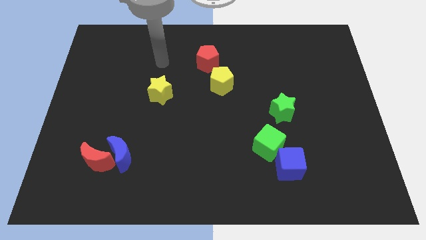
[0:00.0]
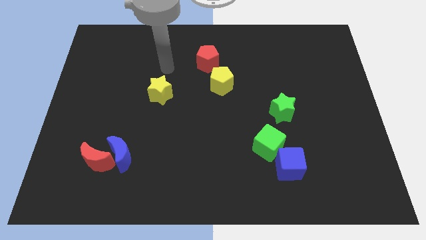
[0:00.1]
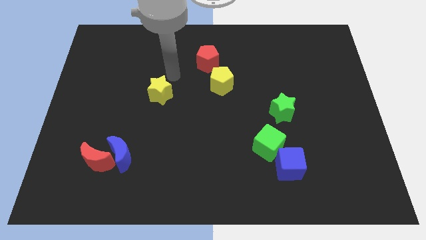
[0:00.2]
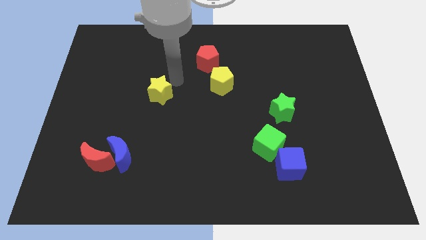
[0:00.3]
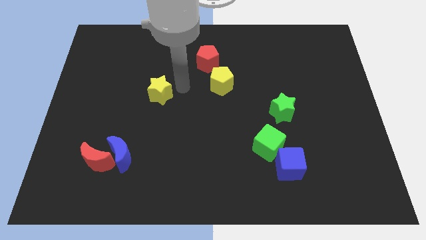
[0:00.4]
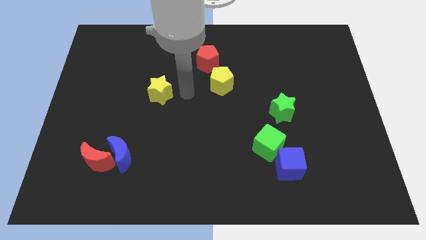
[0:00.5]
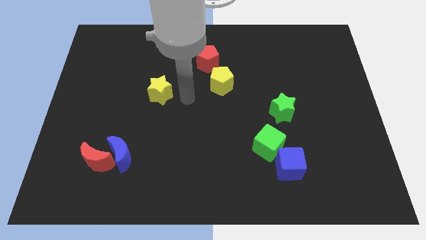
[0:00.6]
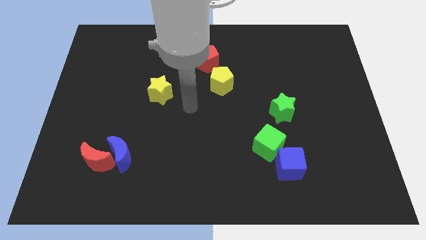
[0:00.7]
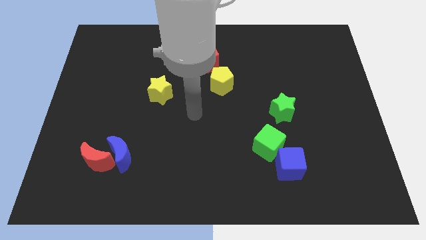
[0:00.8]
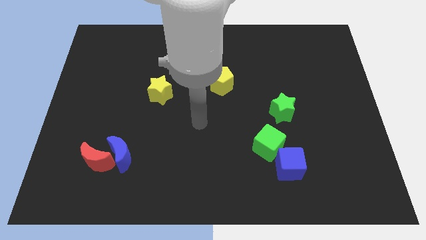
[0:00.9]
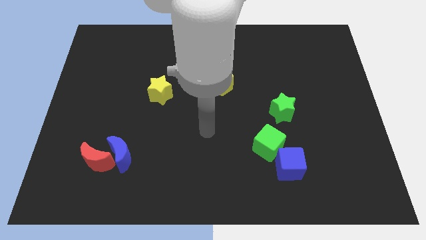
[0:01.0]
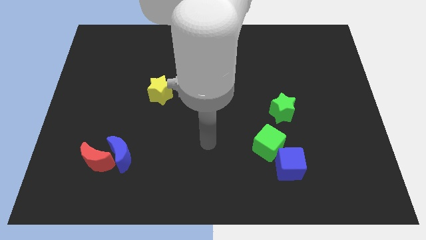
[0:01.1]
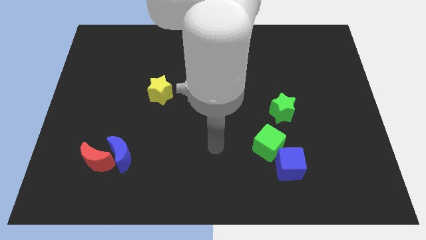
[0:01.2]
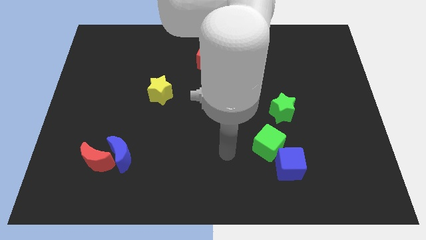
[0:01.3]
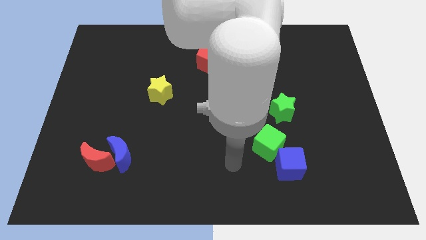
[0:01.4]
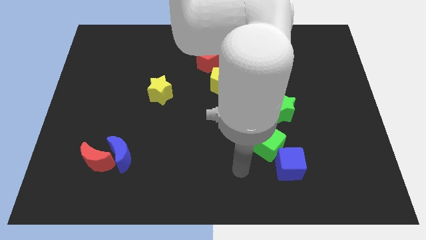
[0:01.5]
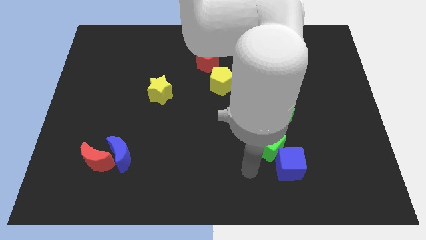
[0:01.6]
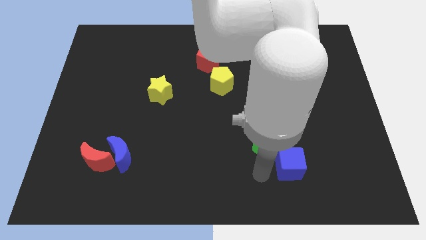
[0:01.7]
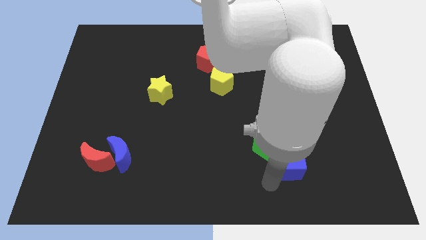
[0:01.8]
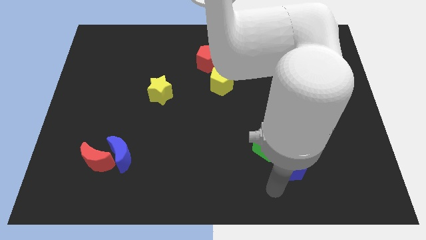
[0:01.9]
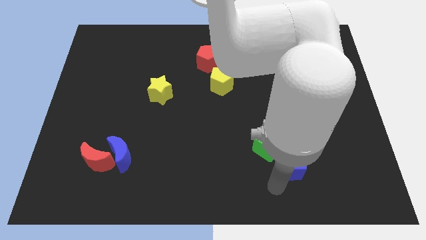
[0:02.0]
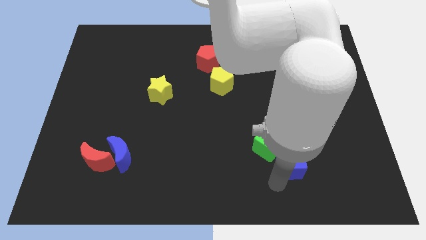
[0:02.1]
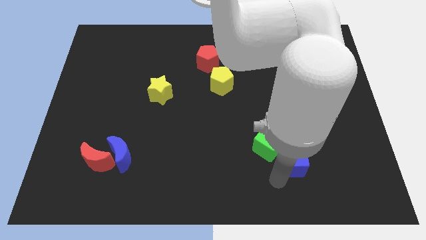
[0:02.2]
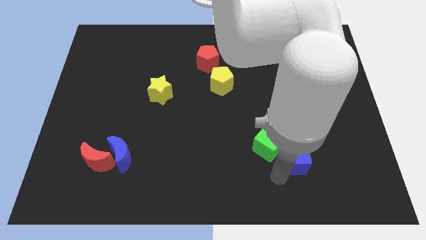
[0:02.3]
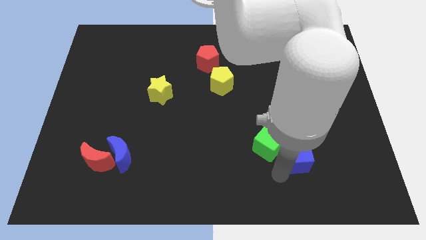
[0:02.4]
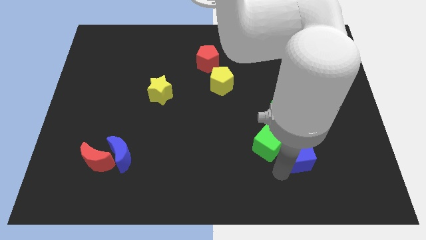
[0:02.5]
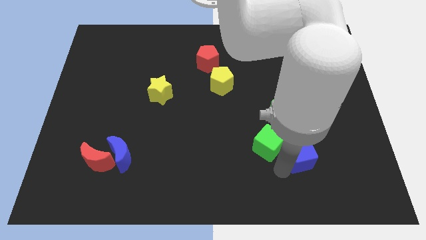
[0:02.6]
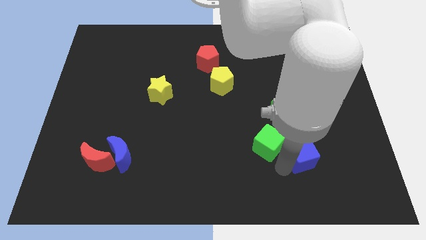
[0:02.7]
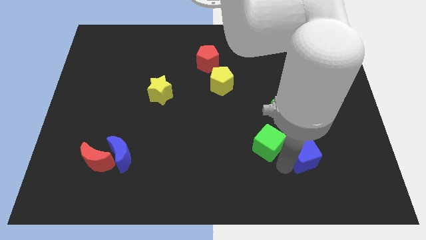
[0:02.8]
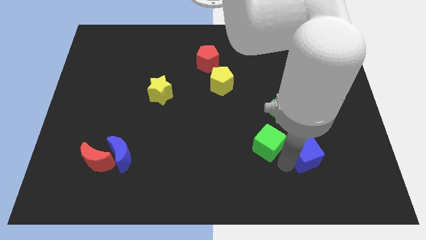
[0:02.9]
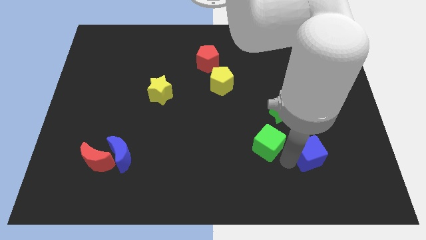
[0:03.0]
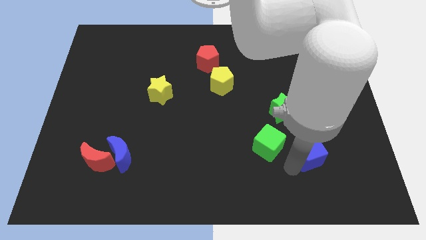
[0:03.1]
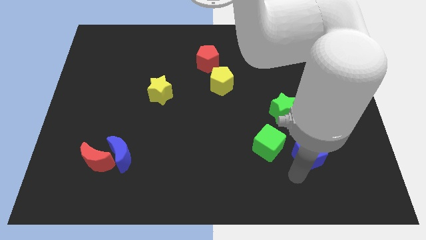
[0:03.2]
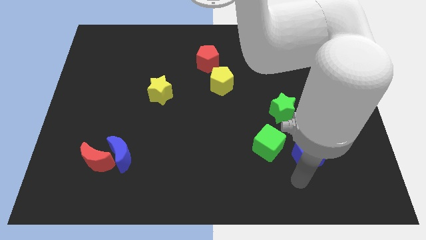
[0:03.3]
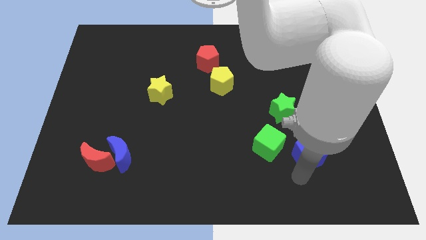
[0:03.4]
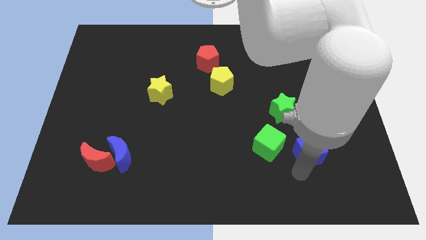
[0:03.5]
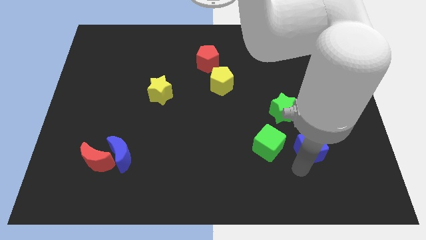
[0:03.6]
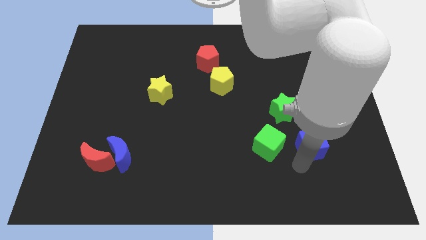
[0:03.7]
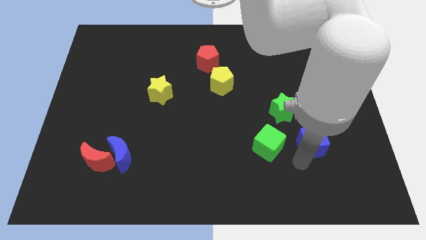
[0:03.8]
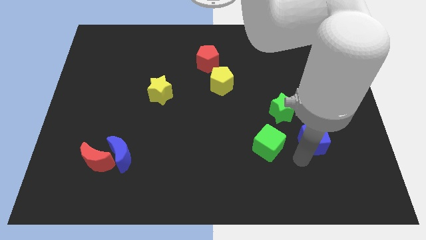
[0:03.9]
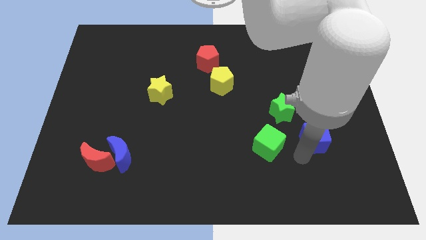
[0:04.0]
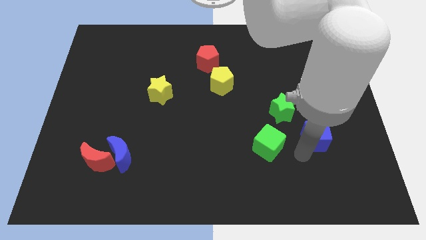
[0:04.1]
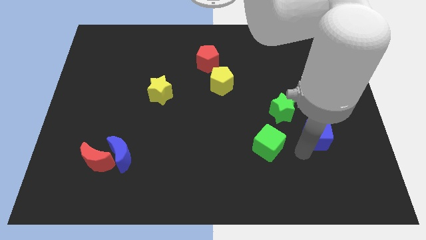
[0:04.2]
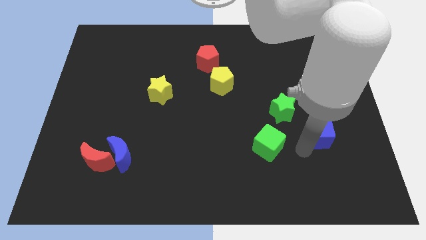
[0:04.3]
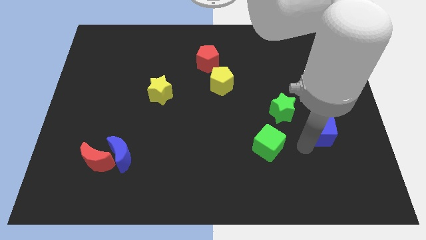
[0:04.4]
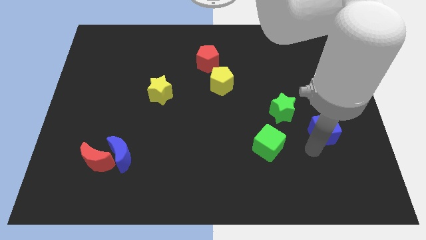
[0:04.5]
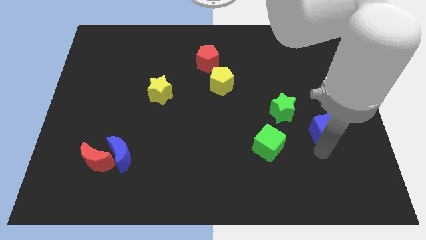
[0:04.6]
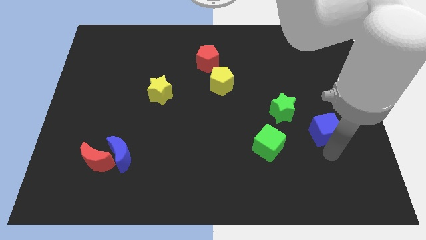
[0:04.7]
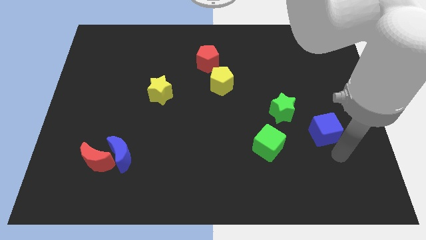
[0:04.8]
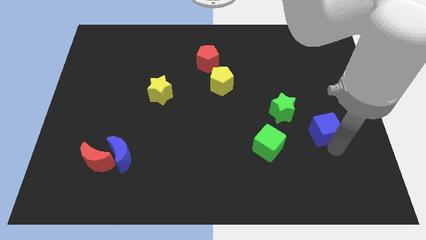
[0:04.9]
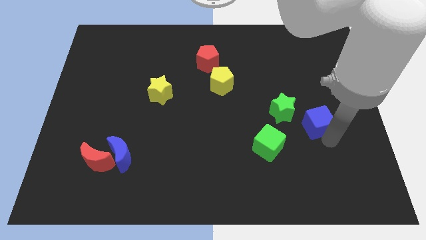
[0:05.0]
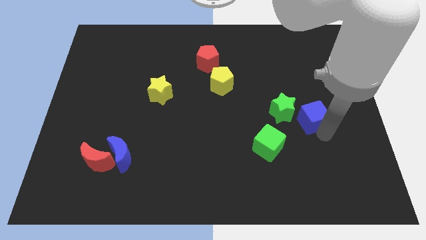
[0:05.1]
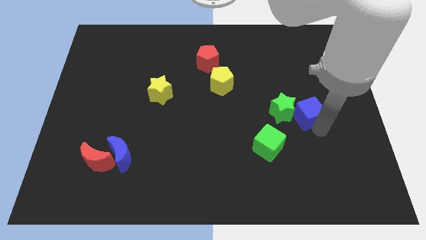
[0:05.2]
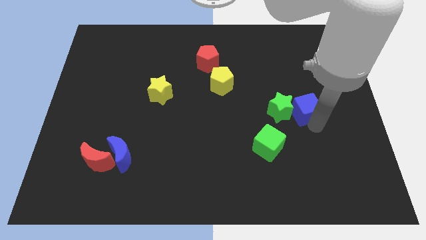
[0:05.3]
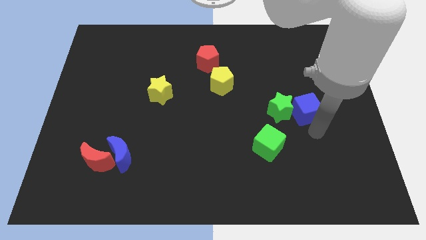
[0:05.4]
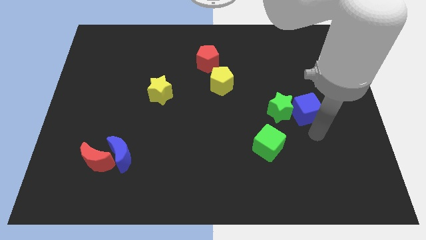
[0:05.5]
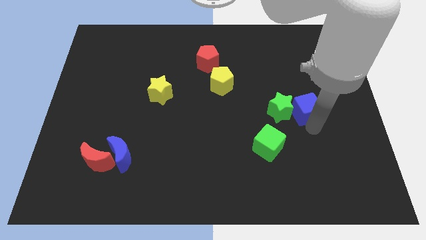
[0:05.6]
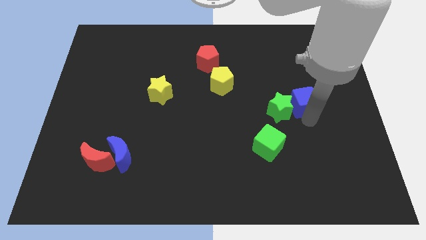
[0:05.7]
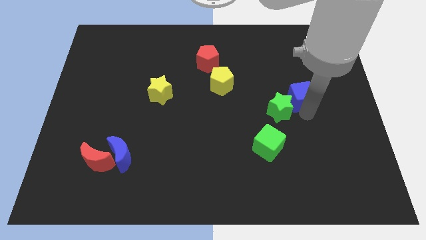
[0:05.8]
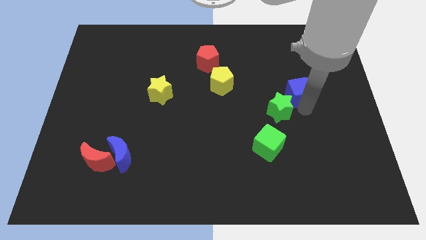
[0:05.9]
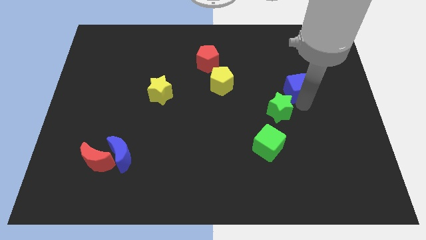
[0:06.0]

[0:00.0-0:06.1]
move the blue cube up

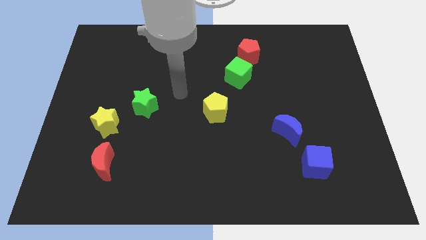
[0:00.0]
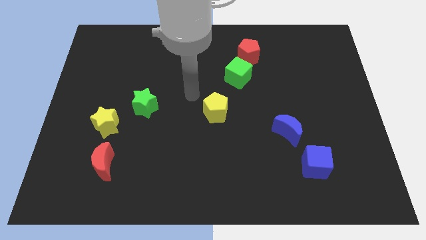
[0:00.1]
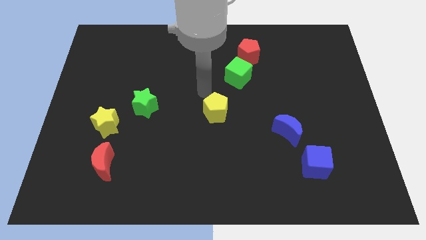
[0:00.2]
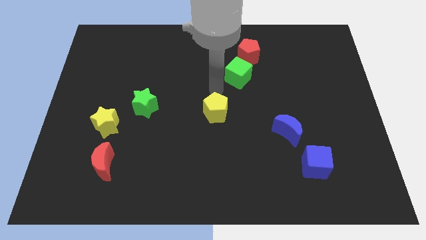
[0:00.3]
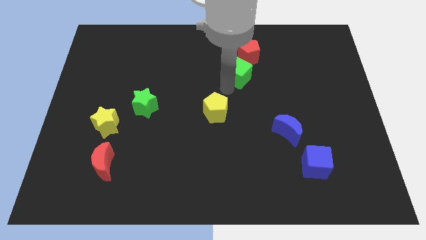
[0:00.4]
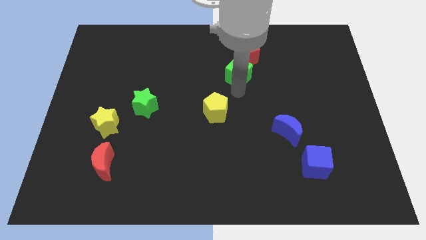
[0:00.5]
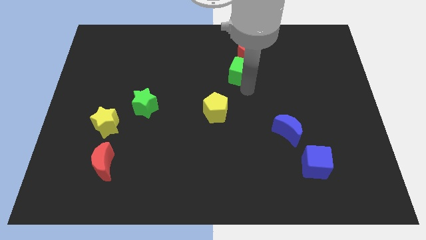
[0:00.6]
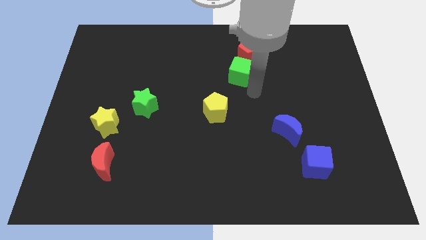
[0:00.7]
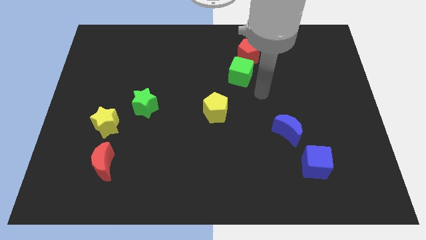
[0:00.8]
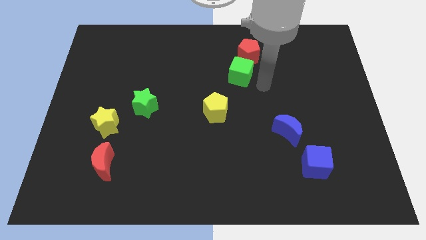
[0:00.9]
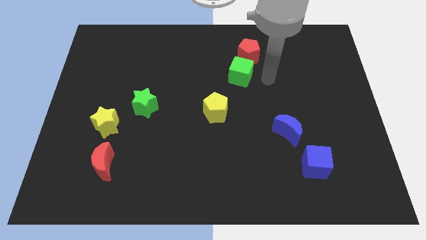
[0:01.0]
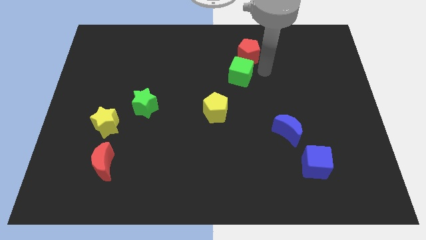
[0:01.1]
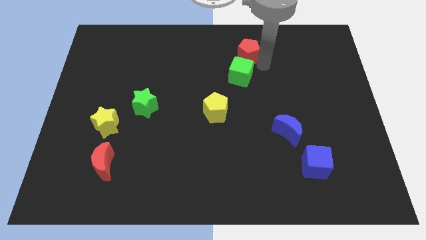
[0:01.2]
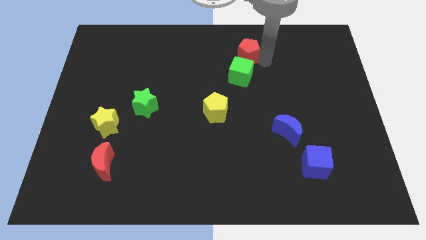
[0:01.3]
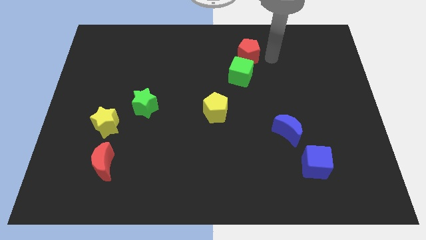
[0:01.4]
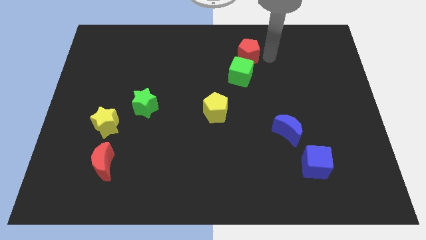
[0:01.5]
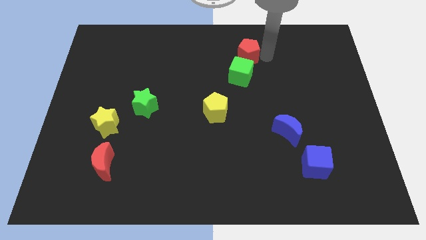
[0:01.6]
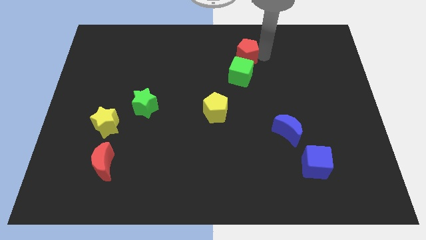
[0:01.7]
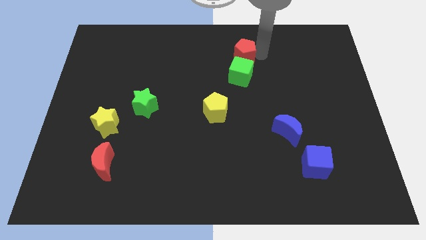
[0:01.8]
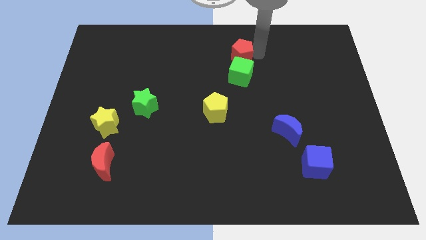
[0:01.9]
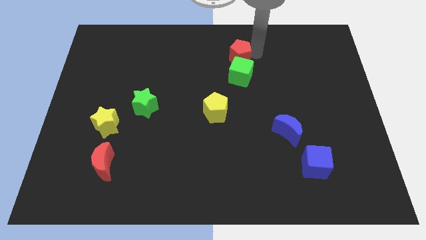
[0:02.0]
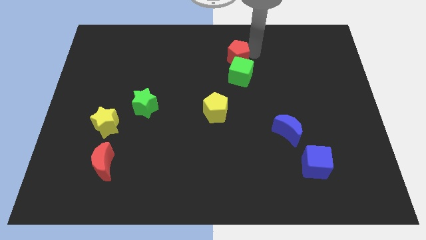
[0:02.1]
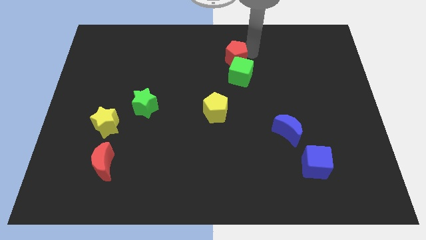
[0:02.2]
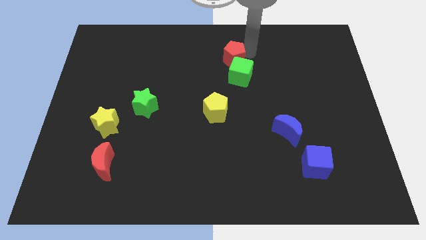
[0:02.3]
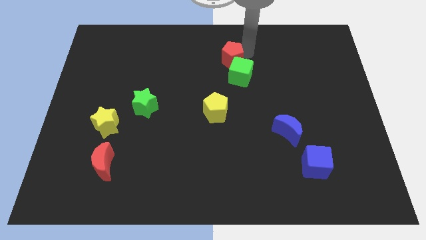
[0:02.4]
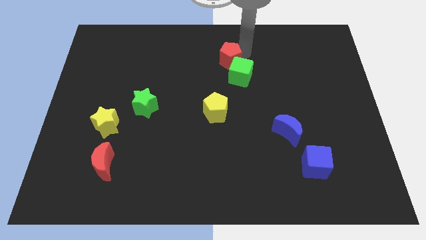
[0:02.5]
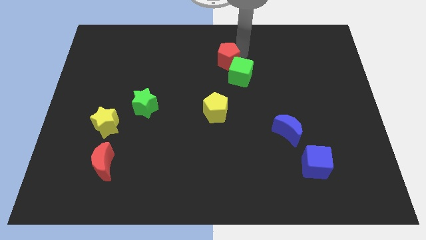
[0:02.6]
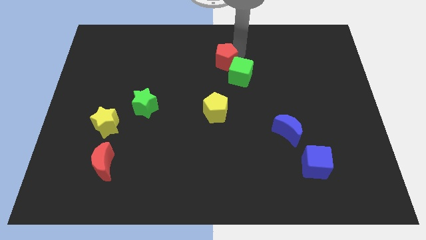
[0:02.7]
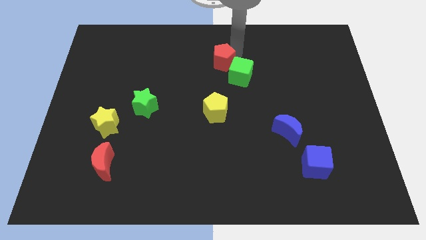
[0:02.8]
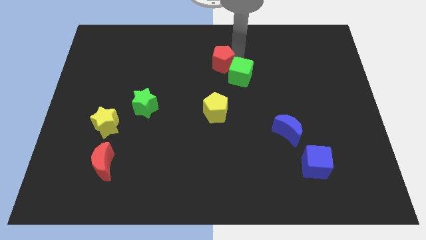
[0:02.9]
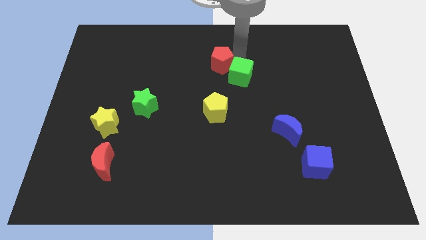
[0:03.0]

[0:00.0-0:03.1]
push the red pentagon a bit left
